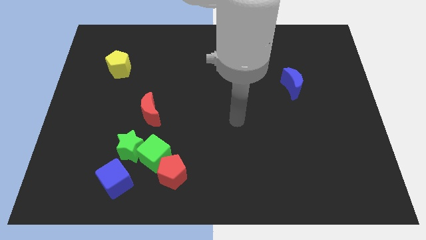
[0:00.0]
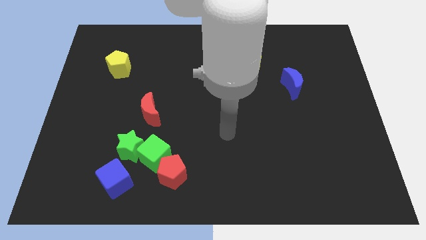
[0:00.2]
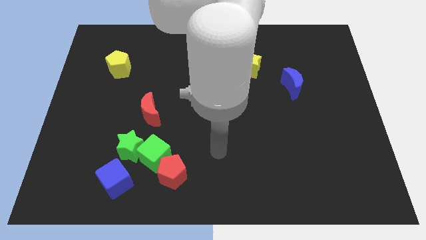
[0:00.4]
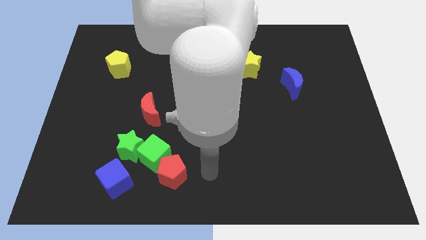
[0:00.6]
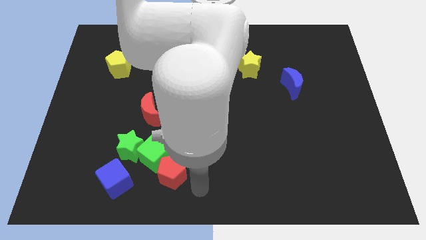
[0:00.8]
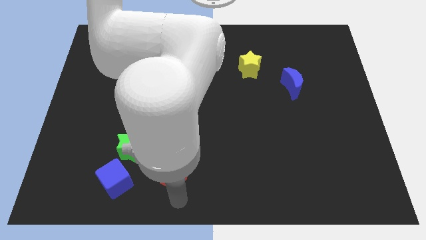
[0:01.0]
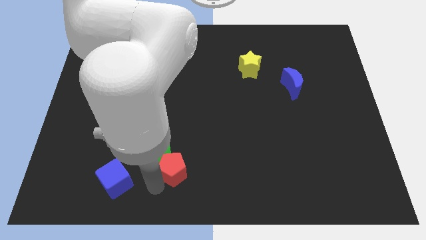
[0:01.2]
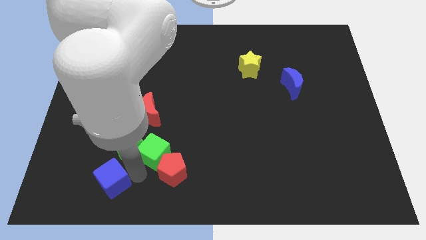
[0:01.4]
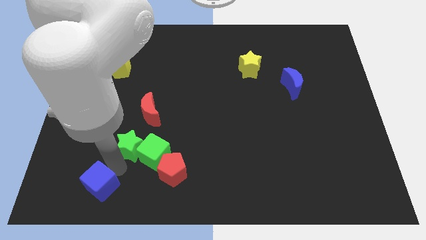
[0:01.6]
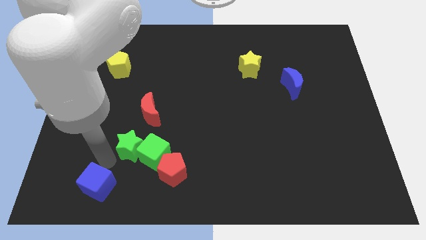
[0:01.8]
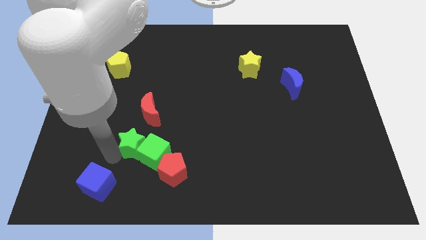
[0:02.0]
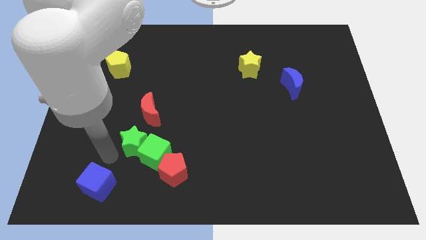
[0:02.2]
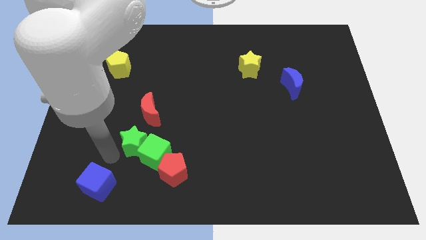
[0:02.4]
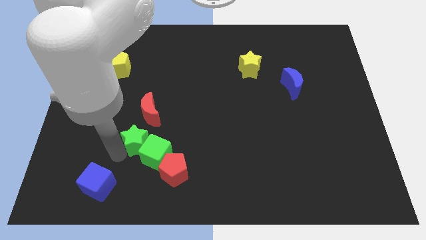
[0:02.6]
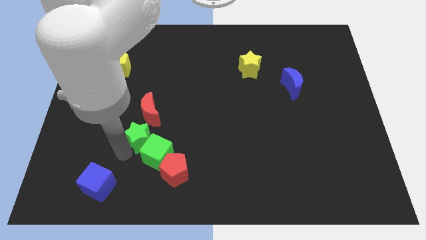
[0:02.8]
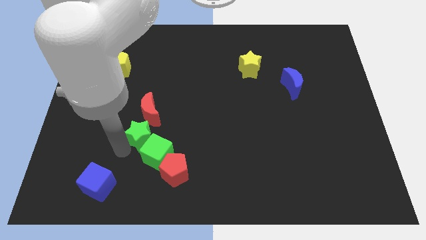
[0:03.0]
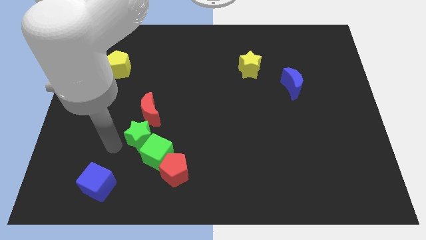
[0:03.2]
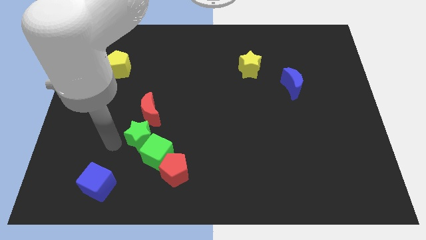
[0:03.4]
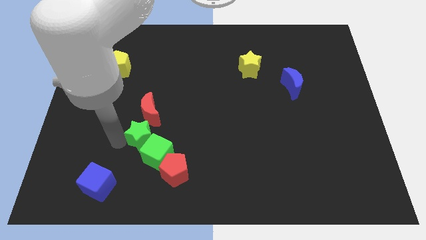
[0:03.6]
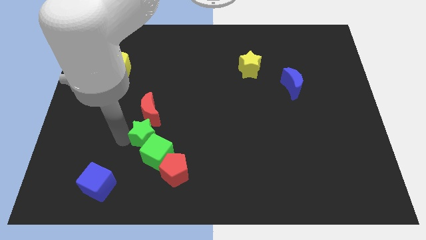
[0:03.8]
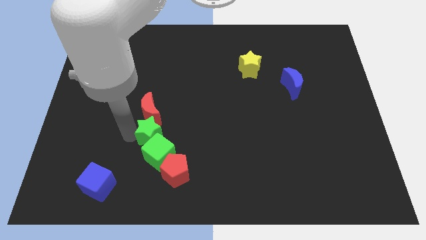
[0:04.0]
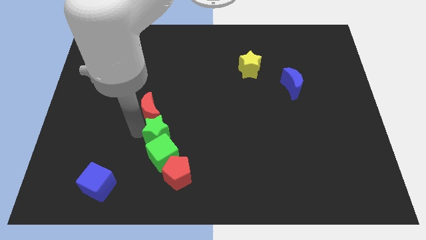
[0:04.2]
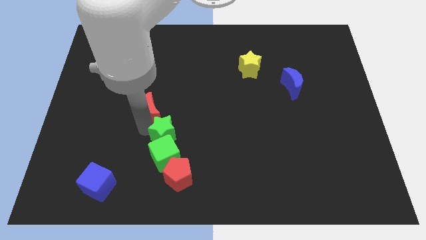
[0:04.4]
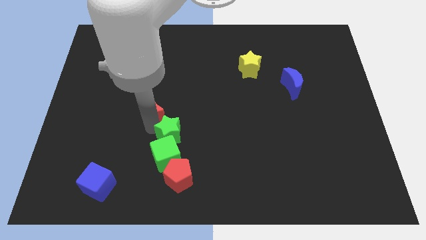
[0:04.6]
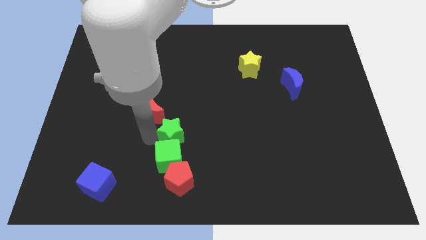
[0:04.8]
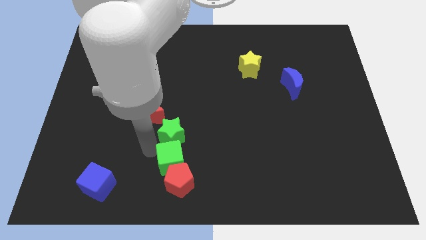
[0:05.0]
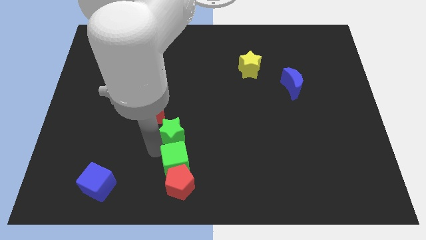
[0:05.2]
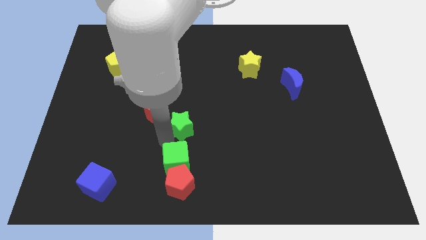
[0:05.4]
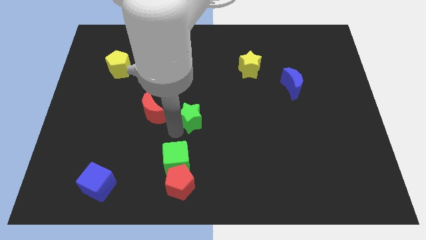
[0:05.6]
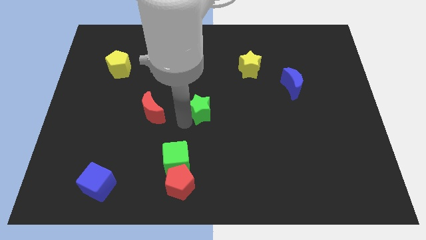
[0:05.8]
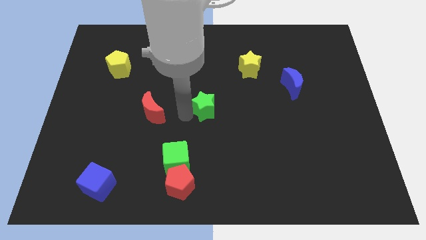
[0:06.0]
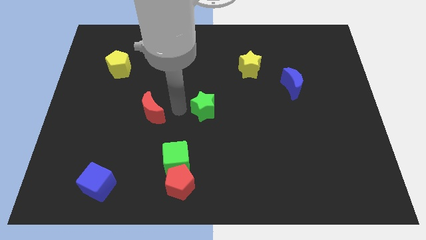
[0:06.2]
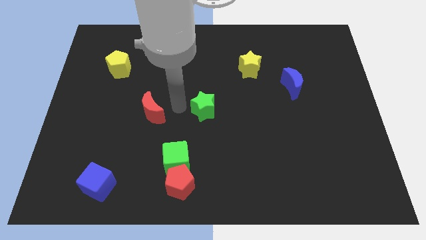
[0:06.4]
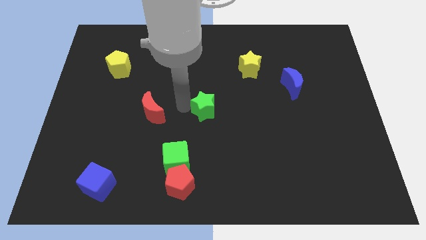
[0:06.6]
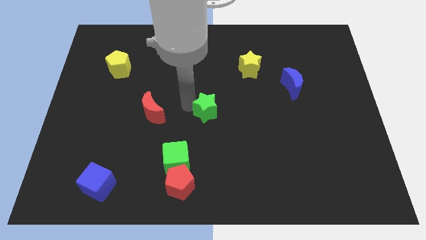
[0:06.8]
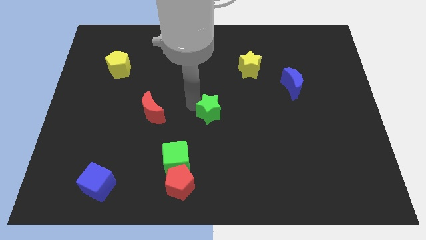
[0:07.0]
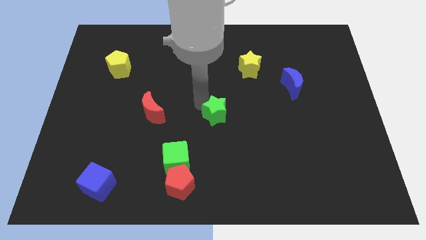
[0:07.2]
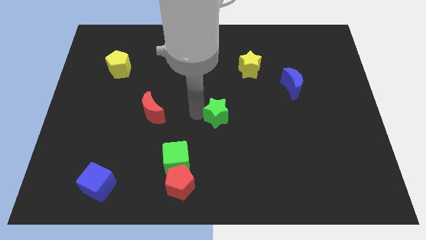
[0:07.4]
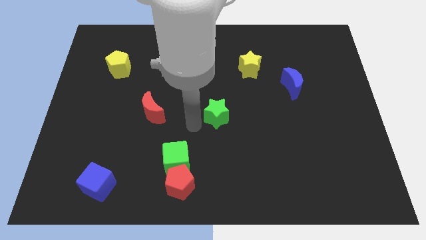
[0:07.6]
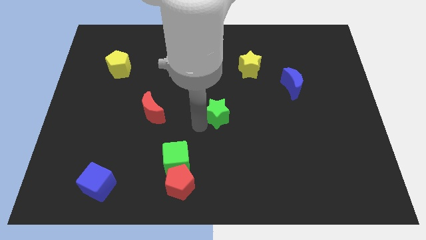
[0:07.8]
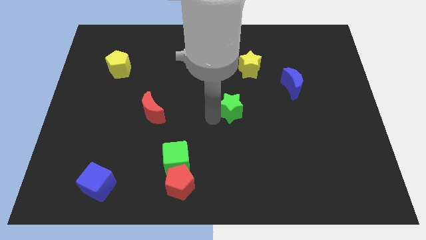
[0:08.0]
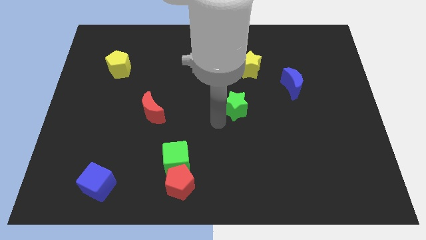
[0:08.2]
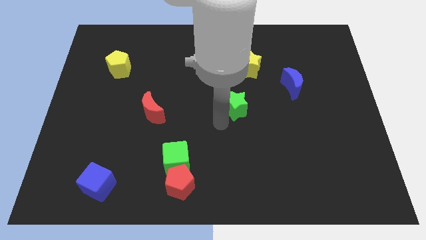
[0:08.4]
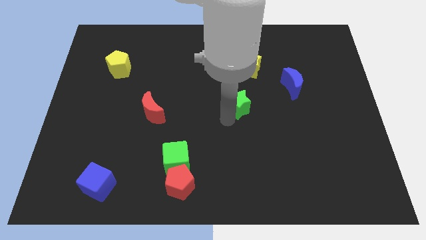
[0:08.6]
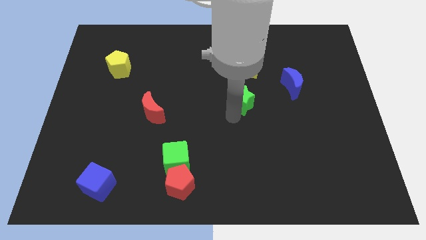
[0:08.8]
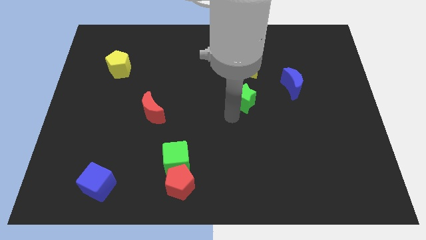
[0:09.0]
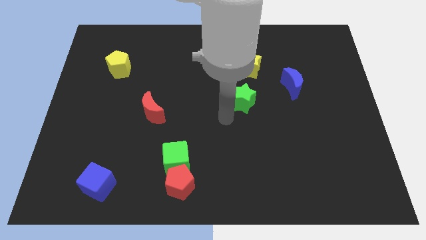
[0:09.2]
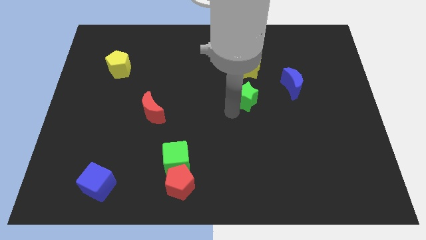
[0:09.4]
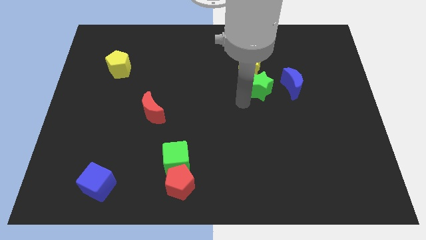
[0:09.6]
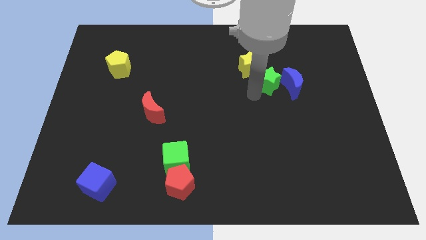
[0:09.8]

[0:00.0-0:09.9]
put the green star to the top left side of the blue moon

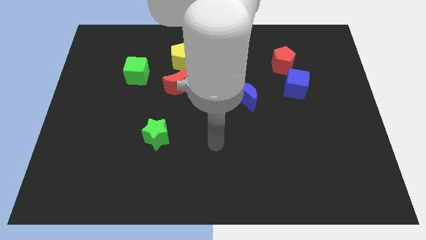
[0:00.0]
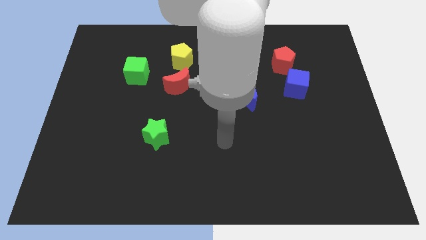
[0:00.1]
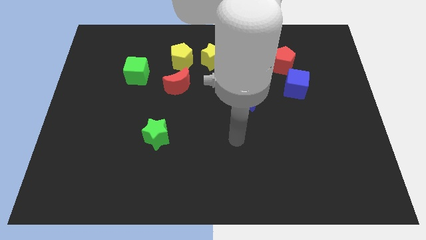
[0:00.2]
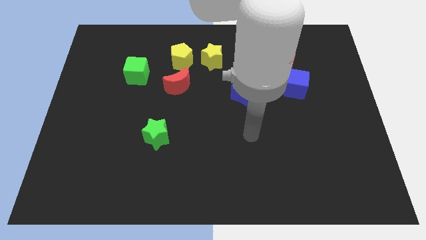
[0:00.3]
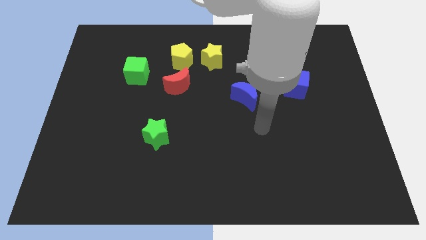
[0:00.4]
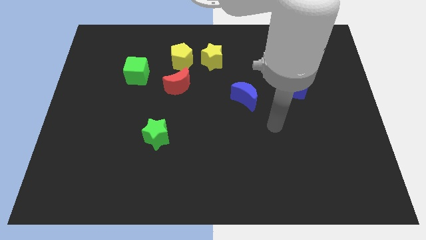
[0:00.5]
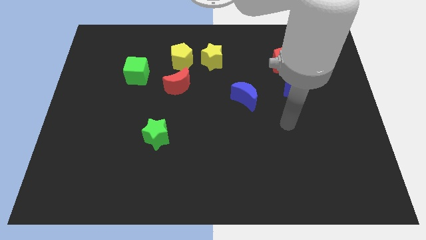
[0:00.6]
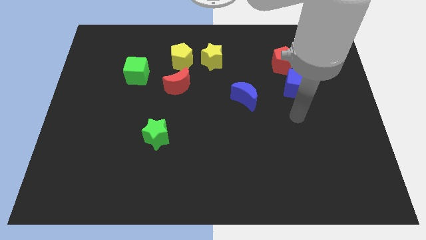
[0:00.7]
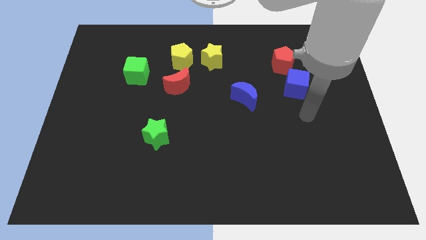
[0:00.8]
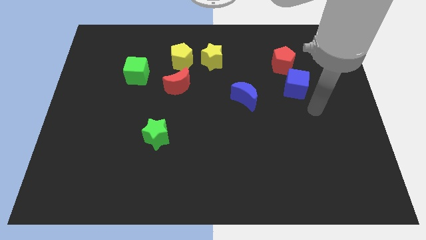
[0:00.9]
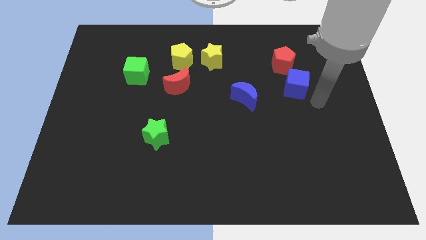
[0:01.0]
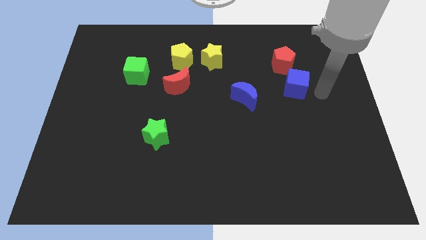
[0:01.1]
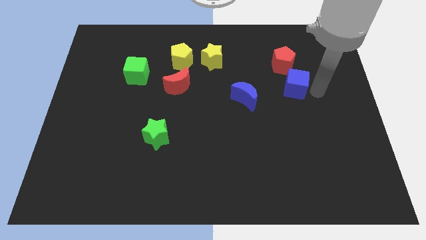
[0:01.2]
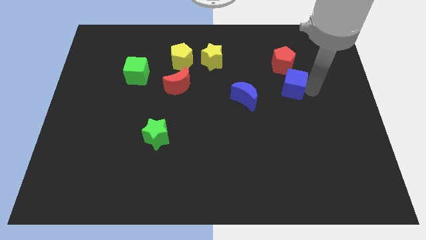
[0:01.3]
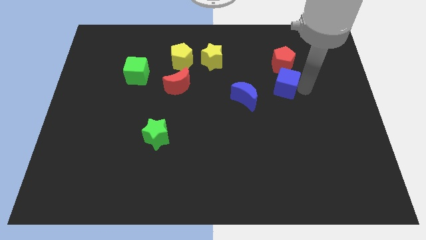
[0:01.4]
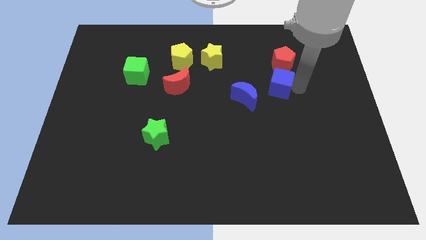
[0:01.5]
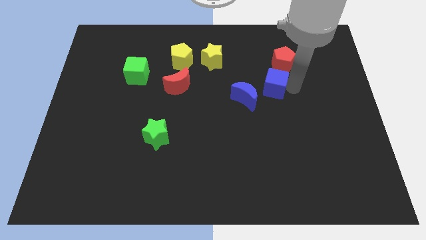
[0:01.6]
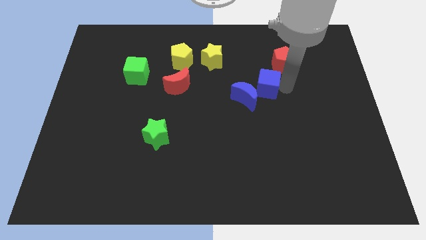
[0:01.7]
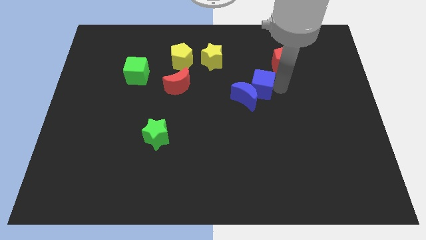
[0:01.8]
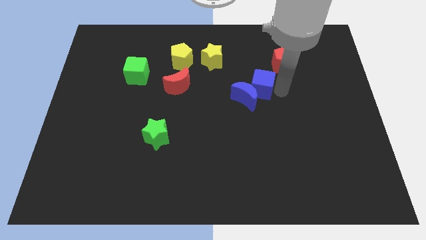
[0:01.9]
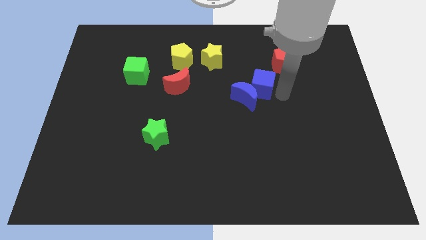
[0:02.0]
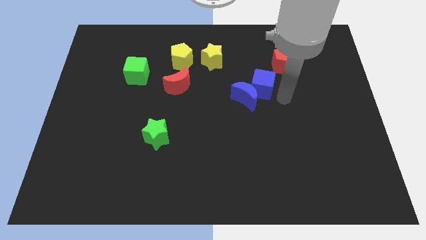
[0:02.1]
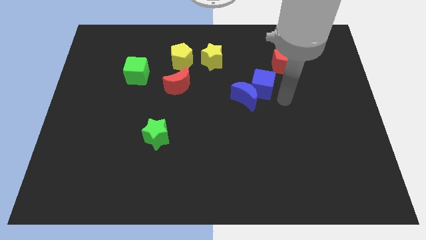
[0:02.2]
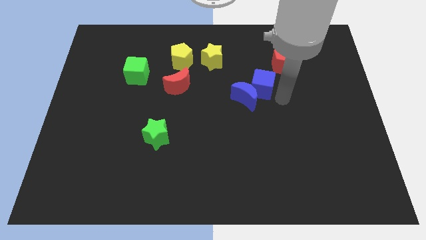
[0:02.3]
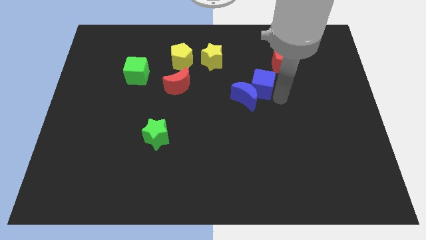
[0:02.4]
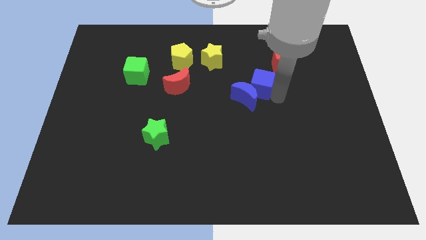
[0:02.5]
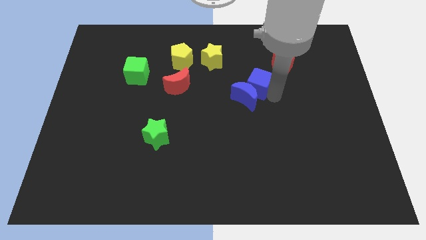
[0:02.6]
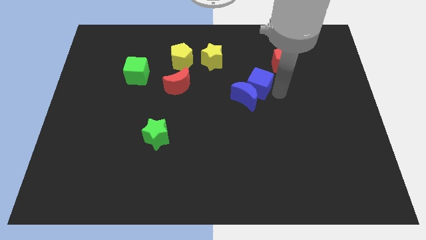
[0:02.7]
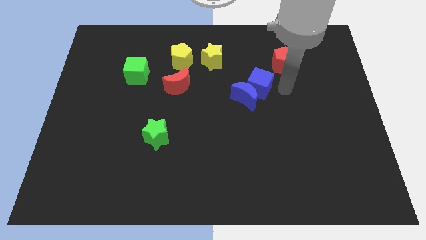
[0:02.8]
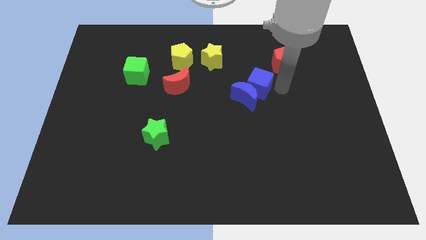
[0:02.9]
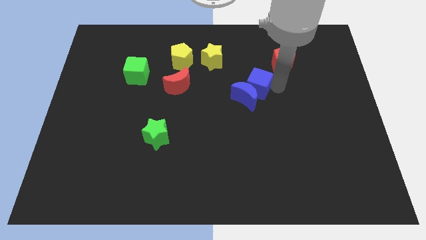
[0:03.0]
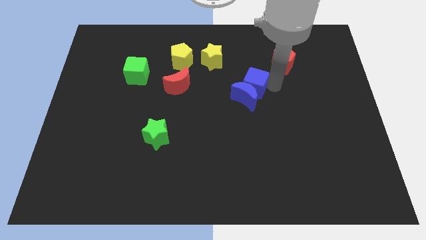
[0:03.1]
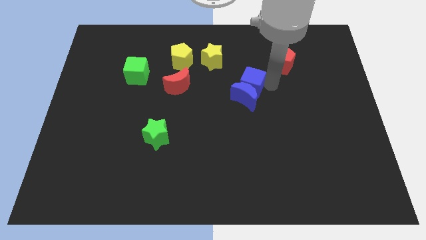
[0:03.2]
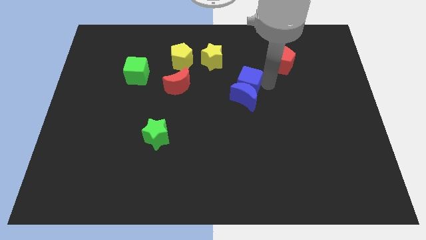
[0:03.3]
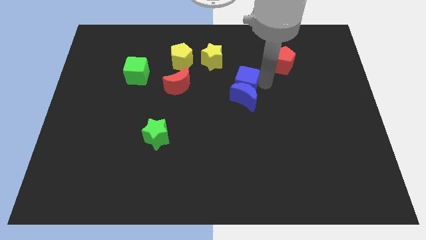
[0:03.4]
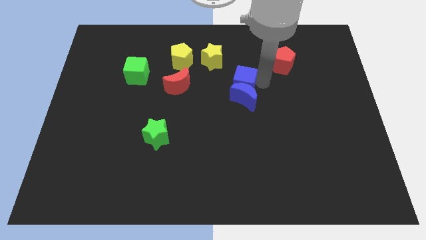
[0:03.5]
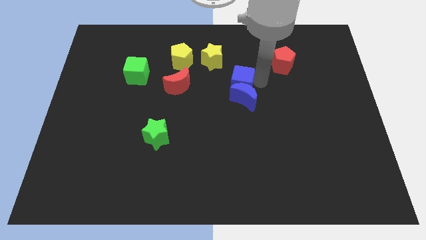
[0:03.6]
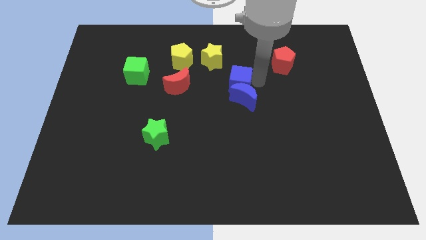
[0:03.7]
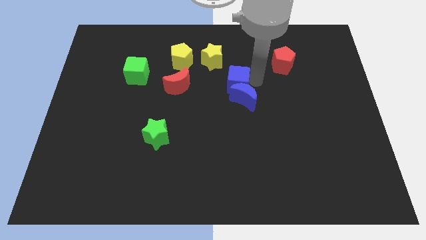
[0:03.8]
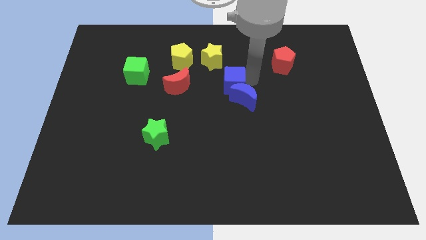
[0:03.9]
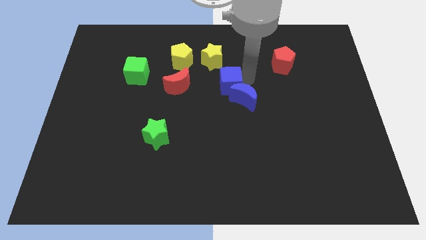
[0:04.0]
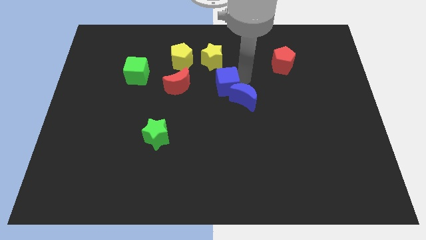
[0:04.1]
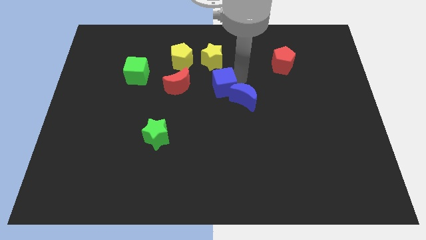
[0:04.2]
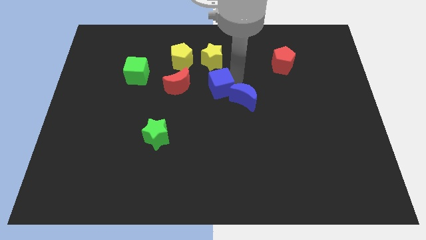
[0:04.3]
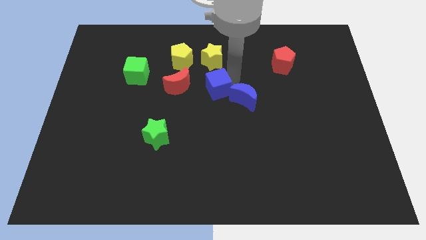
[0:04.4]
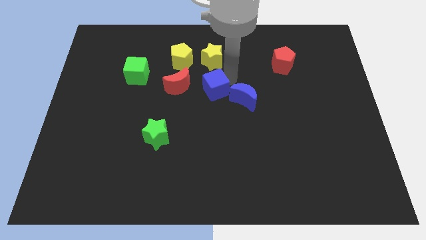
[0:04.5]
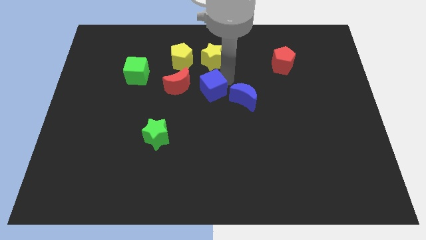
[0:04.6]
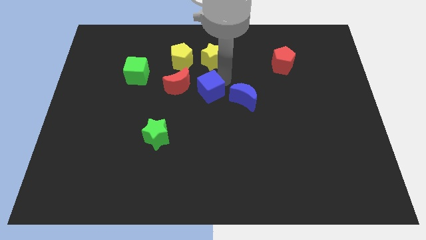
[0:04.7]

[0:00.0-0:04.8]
move the blue cube to the bottom right side of the red moon
